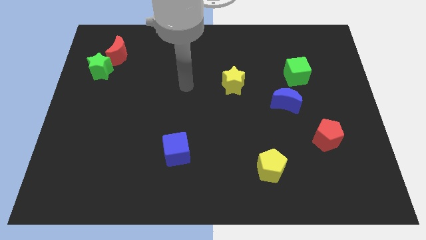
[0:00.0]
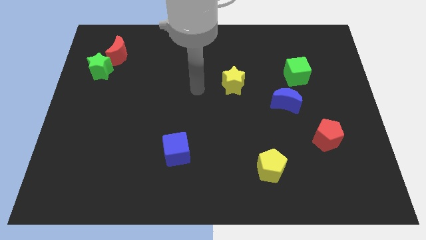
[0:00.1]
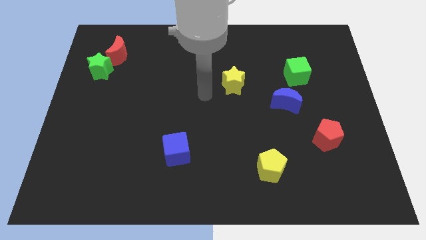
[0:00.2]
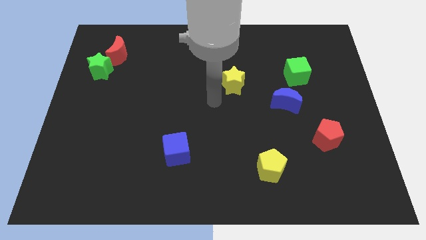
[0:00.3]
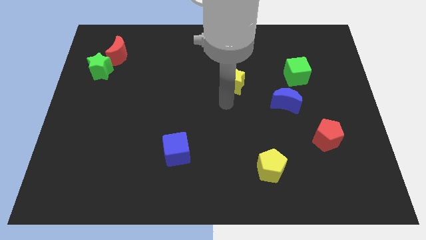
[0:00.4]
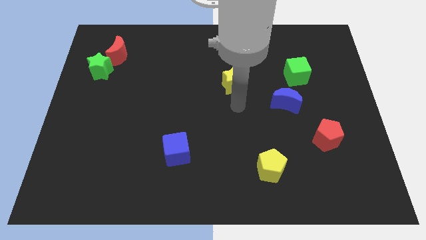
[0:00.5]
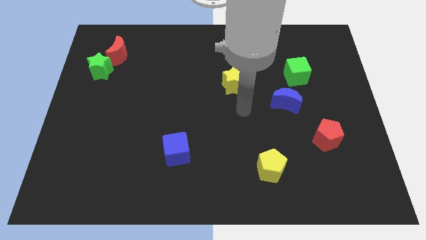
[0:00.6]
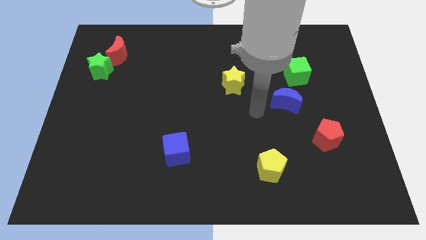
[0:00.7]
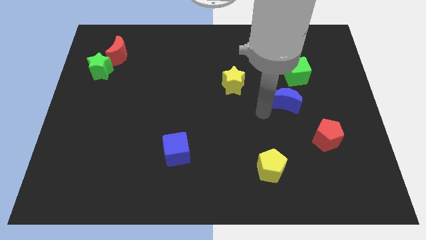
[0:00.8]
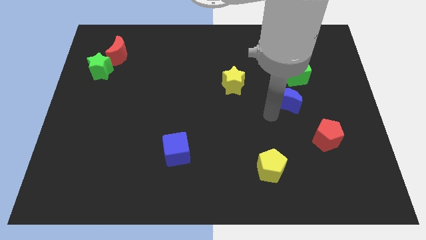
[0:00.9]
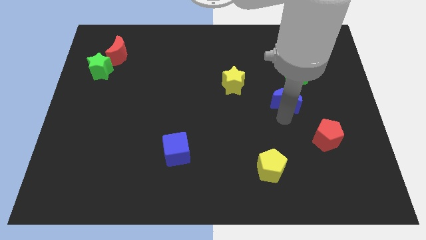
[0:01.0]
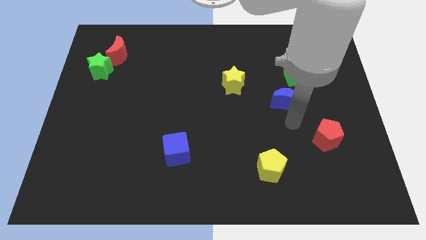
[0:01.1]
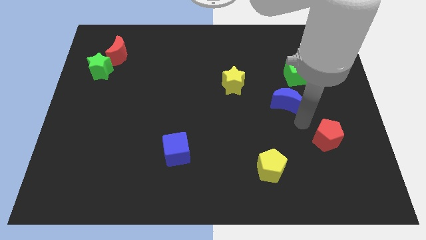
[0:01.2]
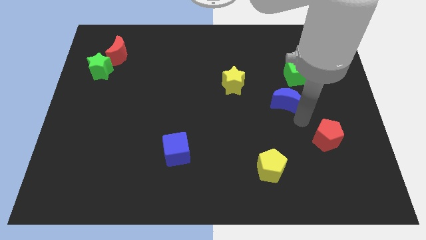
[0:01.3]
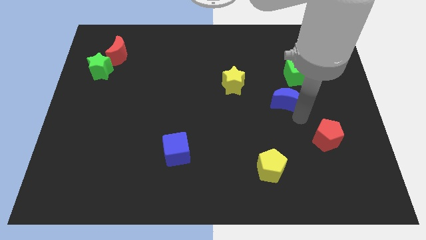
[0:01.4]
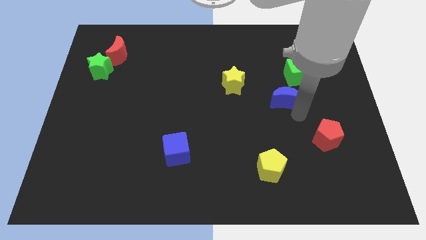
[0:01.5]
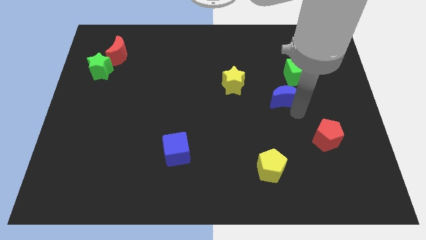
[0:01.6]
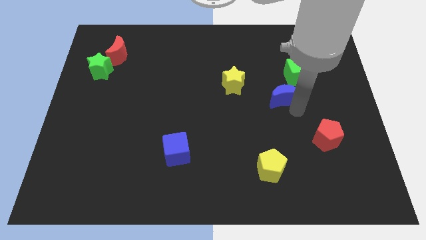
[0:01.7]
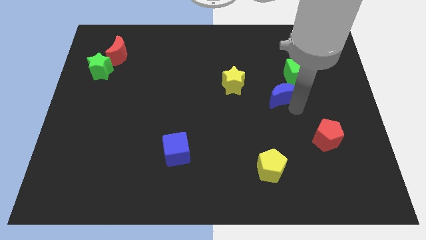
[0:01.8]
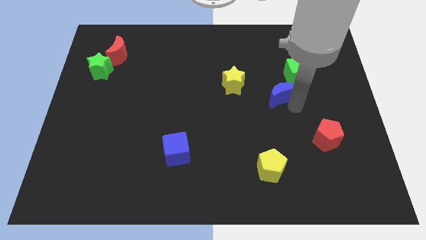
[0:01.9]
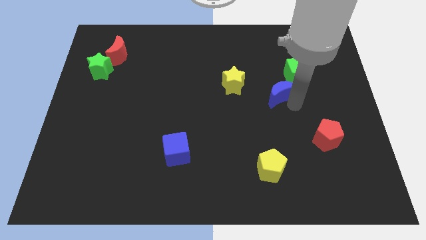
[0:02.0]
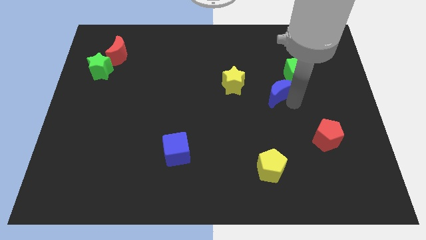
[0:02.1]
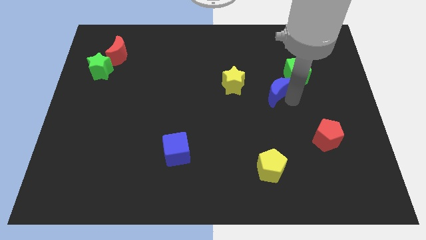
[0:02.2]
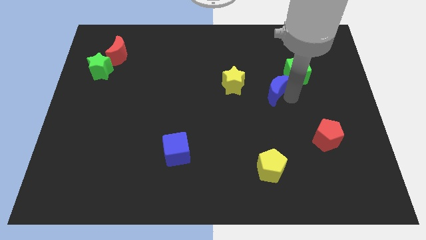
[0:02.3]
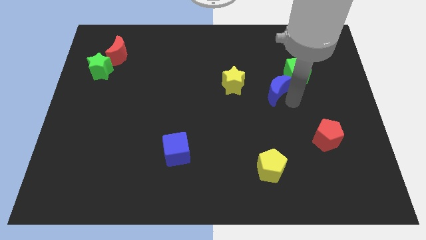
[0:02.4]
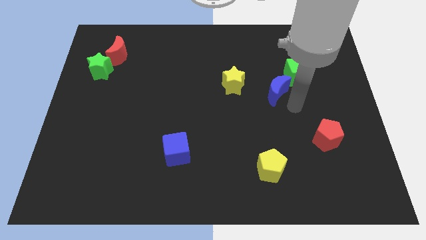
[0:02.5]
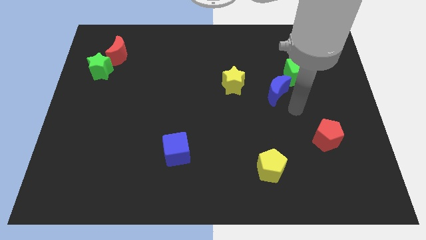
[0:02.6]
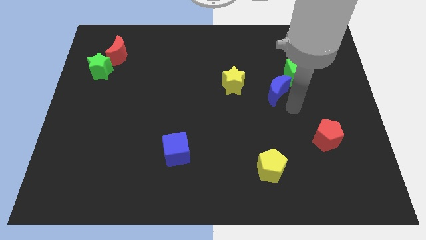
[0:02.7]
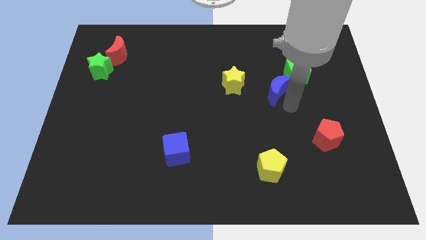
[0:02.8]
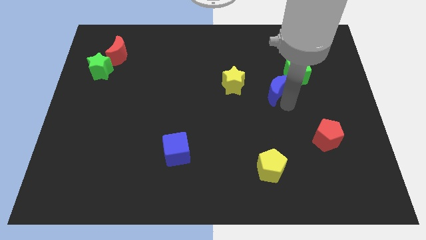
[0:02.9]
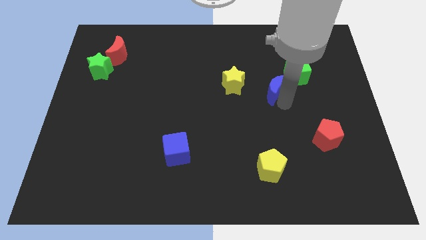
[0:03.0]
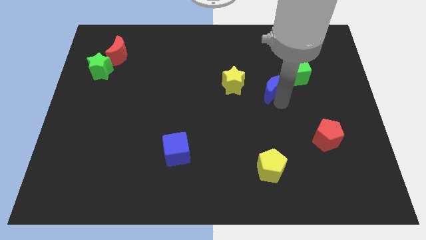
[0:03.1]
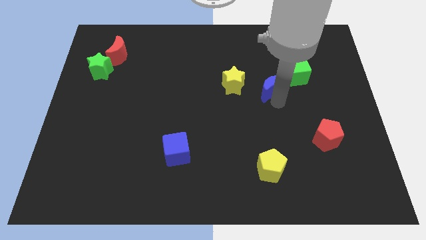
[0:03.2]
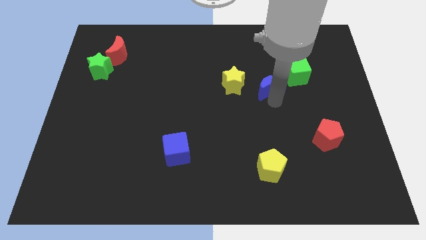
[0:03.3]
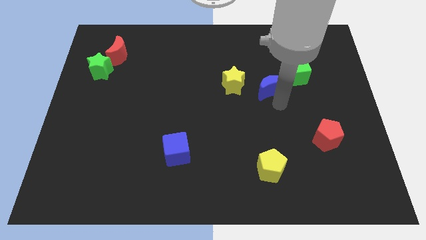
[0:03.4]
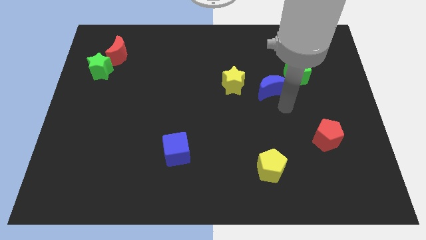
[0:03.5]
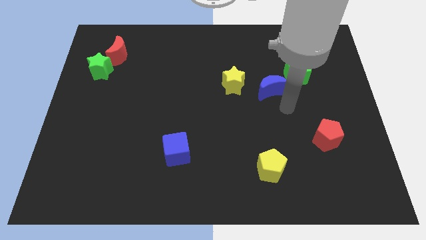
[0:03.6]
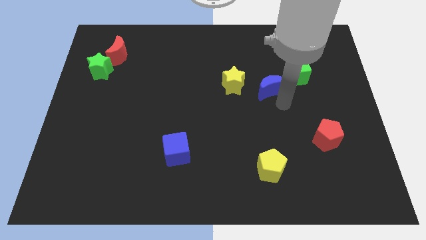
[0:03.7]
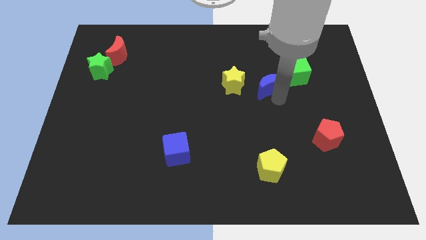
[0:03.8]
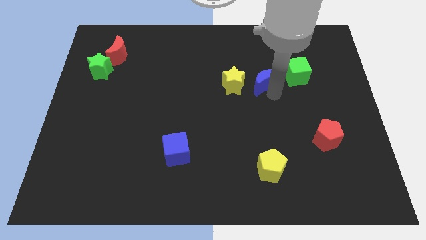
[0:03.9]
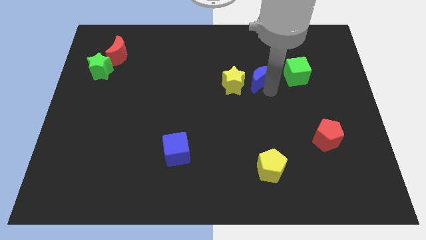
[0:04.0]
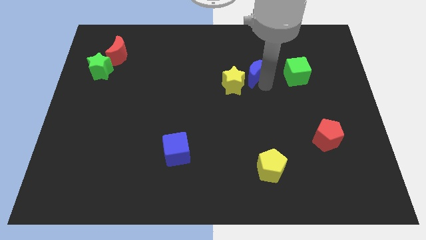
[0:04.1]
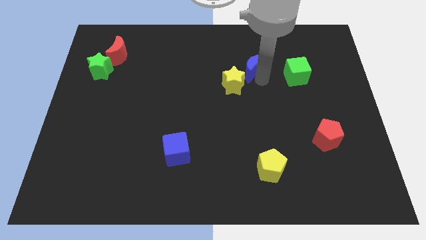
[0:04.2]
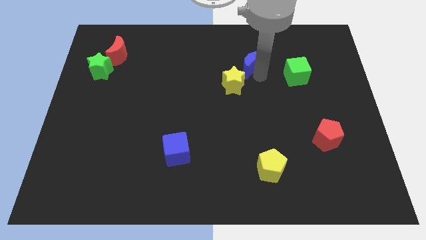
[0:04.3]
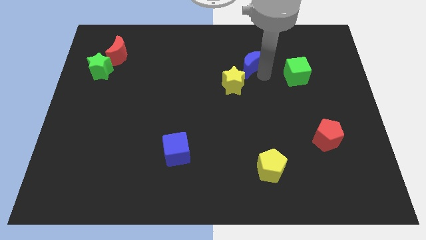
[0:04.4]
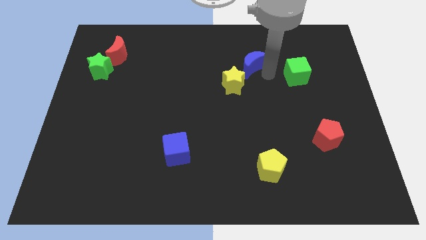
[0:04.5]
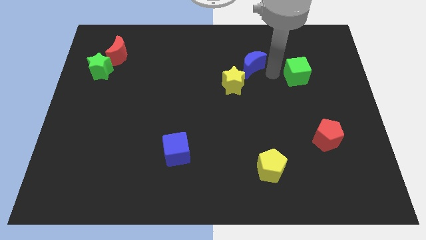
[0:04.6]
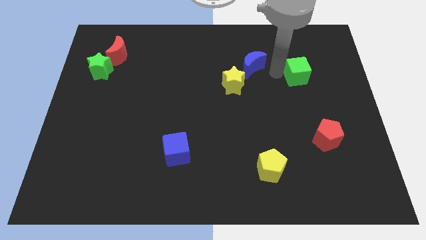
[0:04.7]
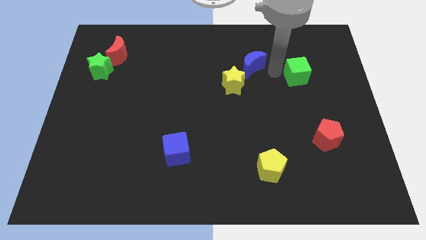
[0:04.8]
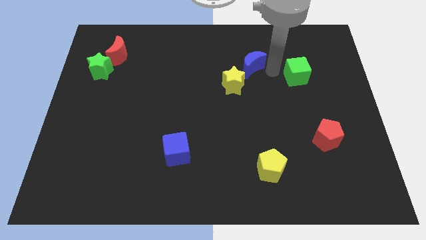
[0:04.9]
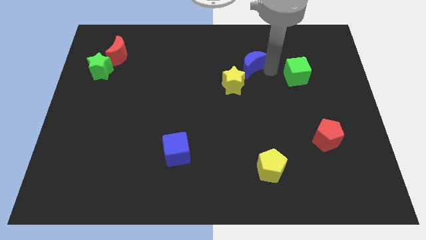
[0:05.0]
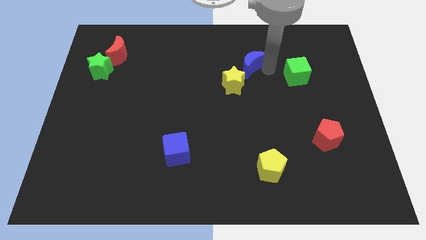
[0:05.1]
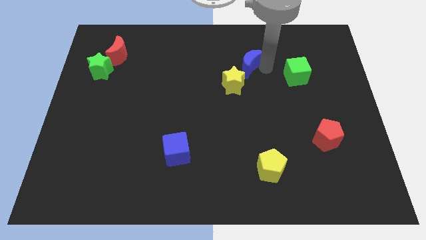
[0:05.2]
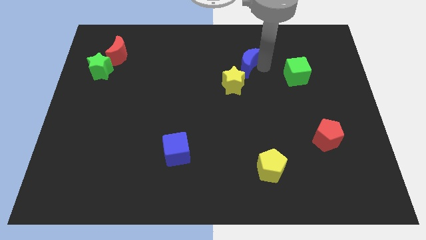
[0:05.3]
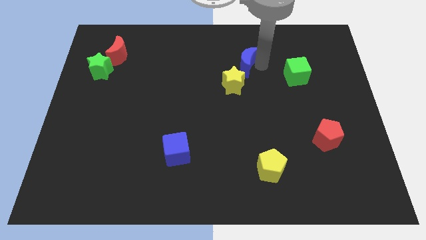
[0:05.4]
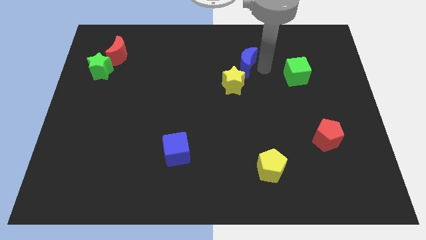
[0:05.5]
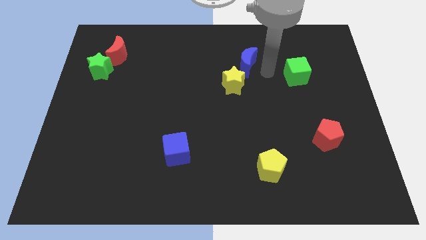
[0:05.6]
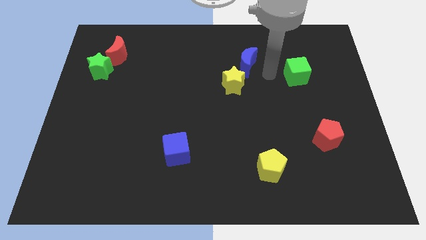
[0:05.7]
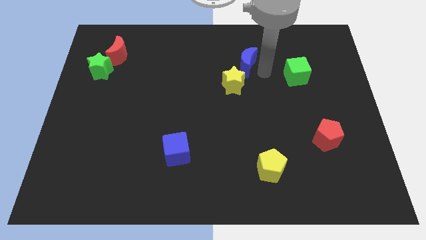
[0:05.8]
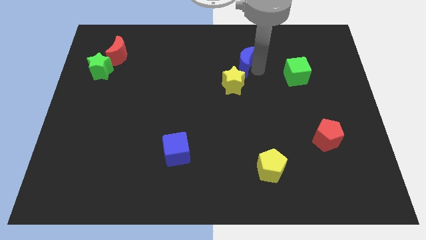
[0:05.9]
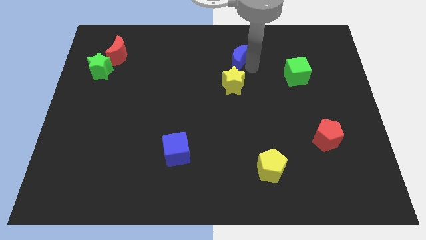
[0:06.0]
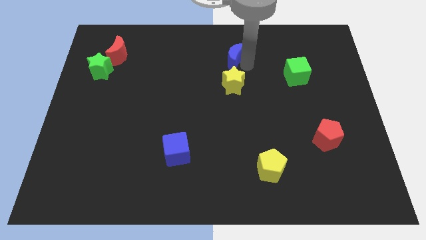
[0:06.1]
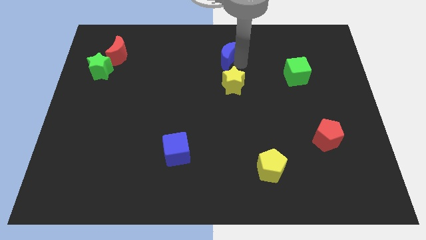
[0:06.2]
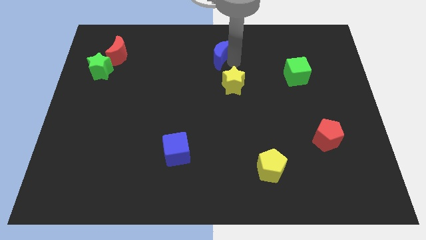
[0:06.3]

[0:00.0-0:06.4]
slide the blue moon to the towards your base
